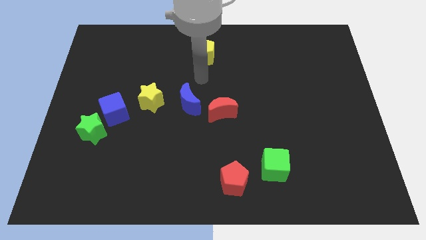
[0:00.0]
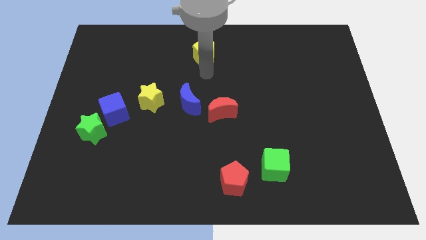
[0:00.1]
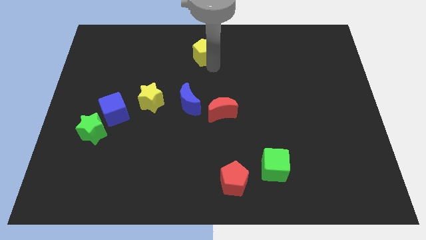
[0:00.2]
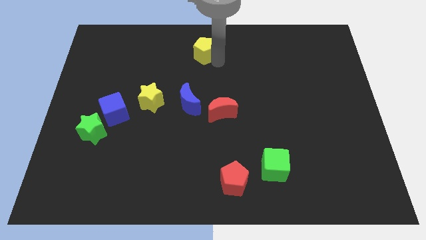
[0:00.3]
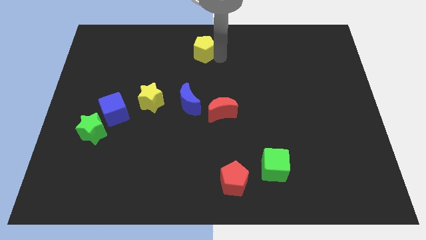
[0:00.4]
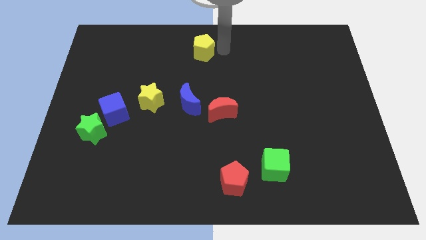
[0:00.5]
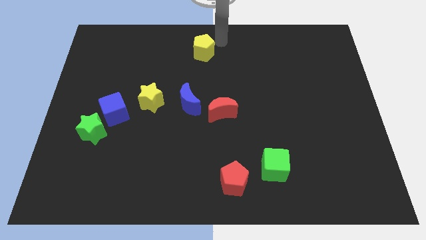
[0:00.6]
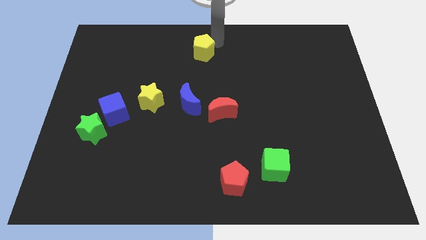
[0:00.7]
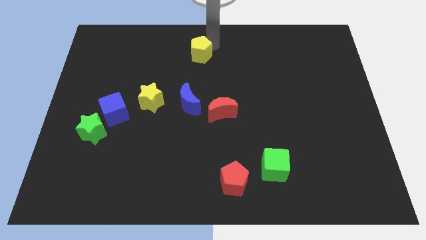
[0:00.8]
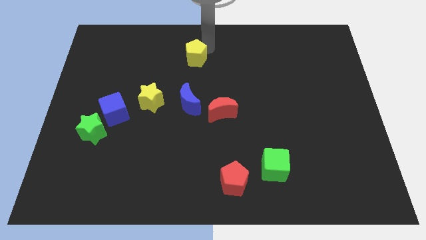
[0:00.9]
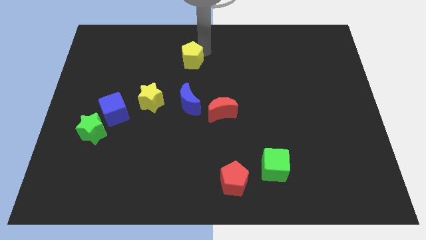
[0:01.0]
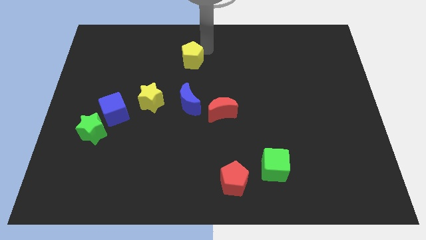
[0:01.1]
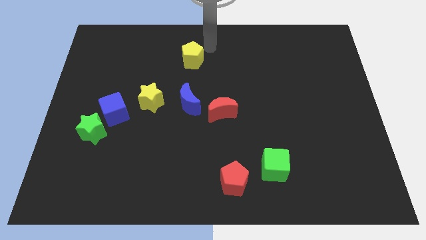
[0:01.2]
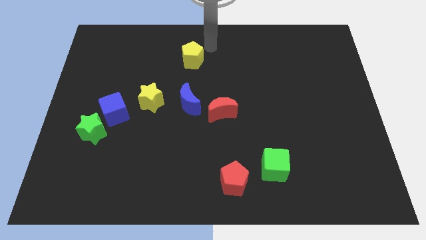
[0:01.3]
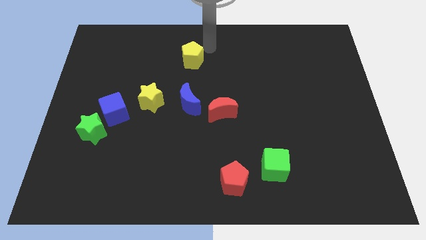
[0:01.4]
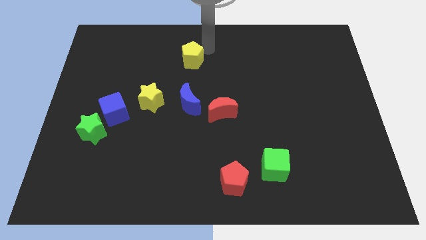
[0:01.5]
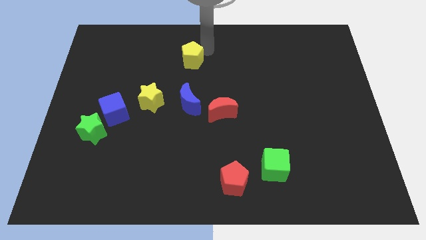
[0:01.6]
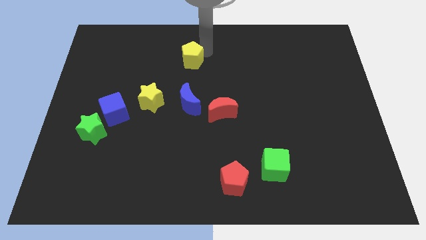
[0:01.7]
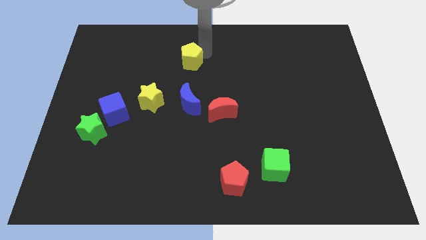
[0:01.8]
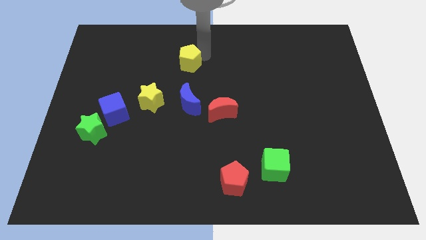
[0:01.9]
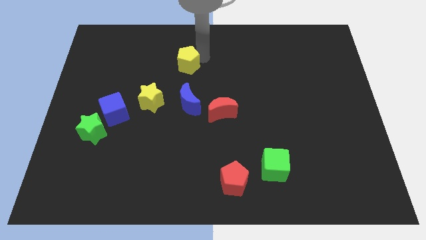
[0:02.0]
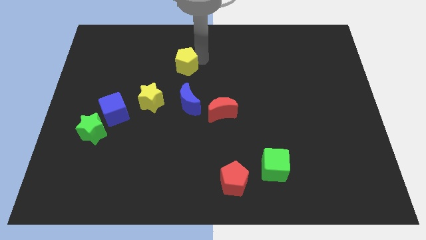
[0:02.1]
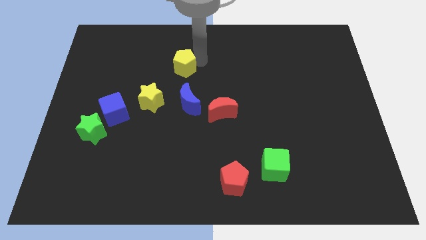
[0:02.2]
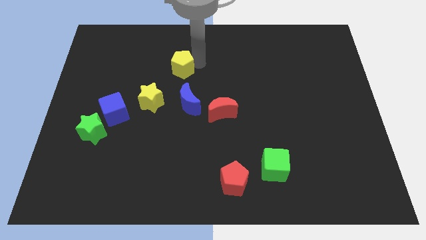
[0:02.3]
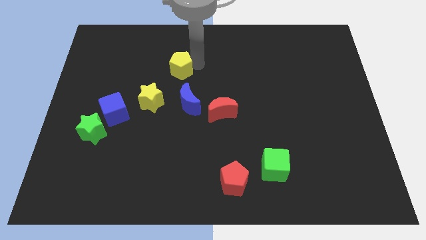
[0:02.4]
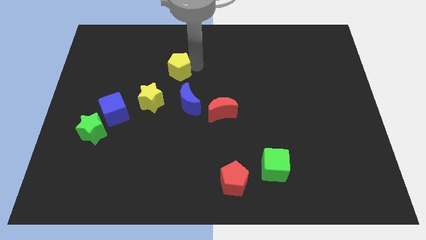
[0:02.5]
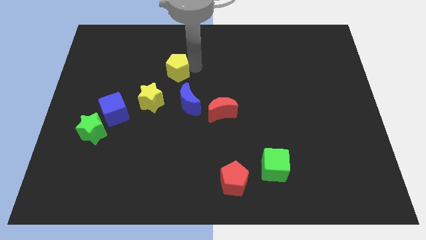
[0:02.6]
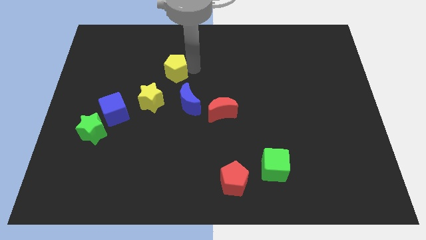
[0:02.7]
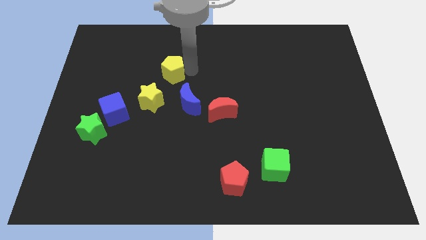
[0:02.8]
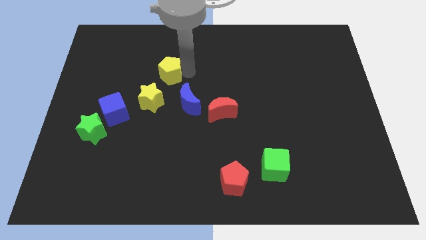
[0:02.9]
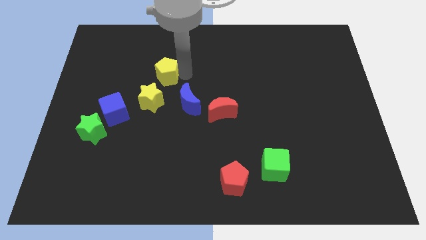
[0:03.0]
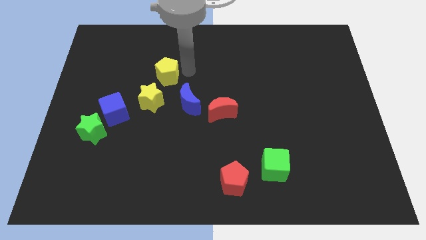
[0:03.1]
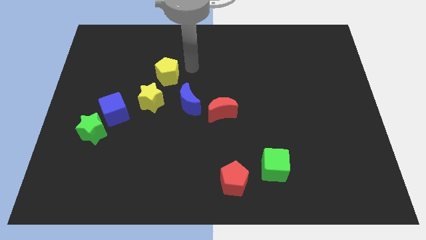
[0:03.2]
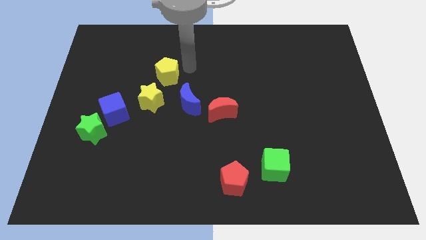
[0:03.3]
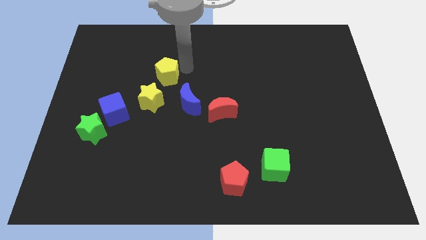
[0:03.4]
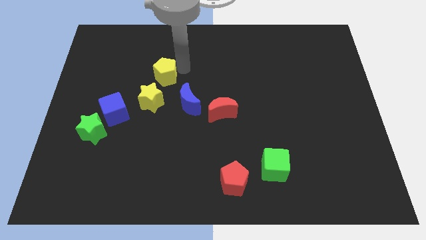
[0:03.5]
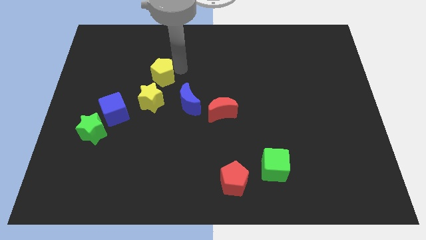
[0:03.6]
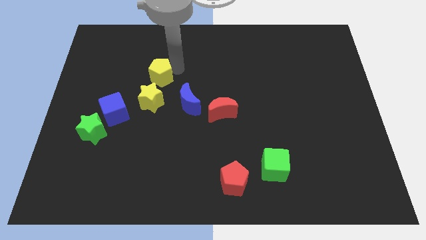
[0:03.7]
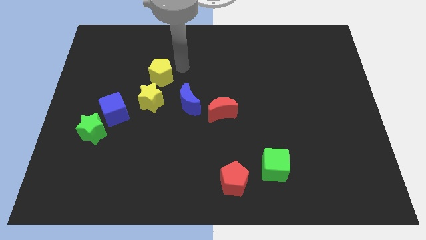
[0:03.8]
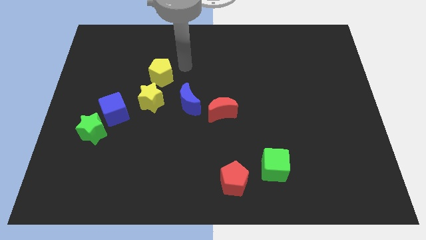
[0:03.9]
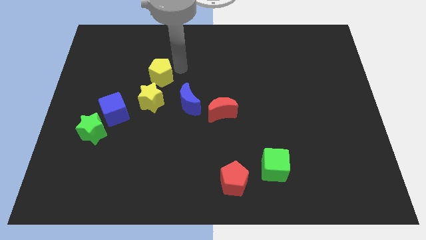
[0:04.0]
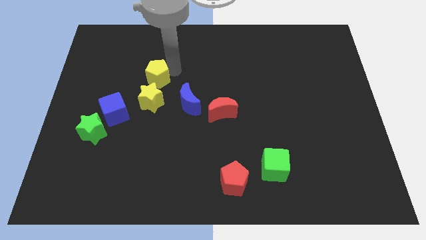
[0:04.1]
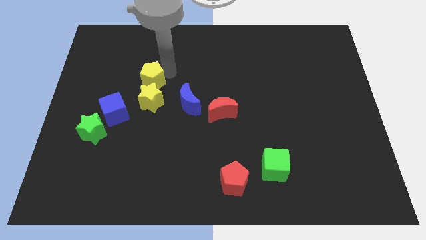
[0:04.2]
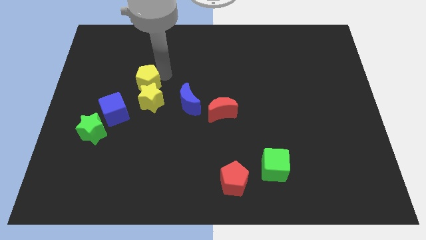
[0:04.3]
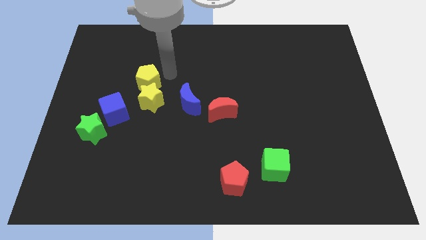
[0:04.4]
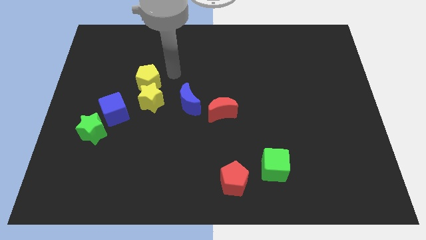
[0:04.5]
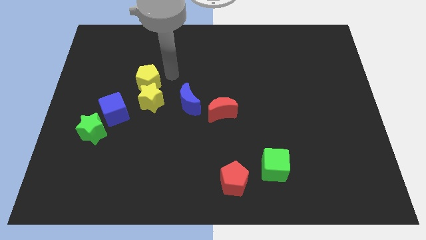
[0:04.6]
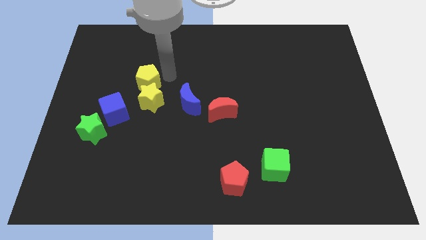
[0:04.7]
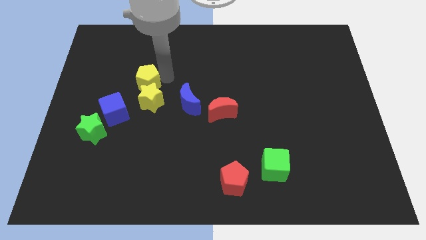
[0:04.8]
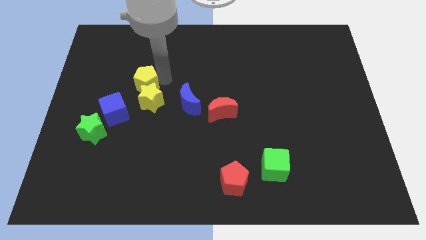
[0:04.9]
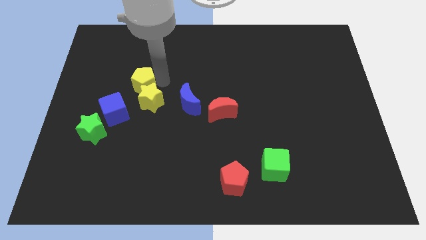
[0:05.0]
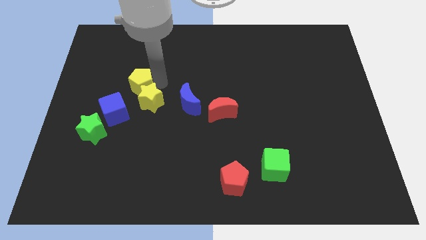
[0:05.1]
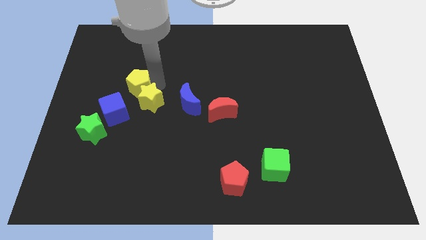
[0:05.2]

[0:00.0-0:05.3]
slide the yellow pentagon left of the yellow star

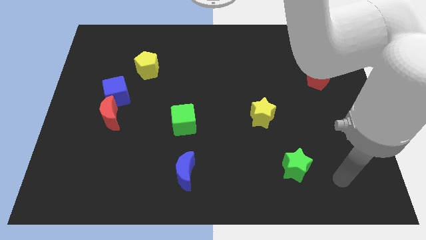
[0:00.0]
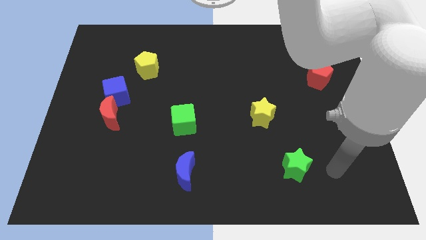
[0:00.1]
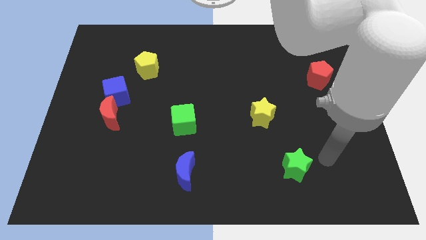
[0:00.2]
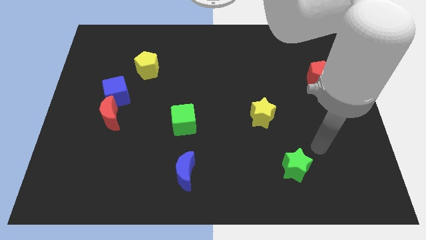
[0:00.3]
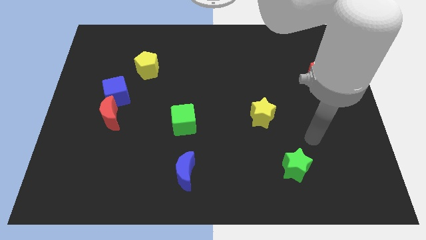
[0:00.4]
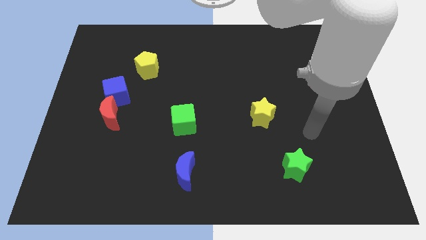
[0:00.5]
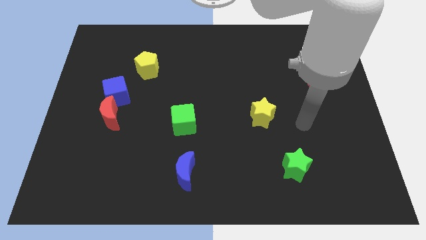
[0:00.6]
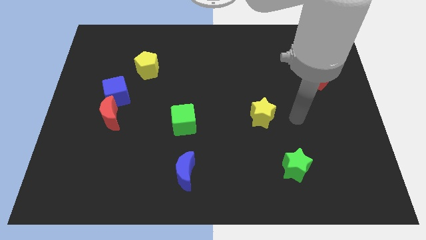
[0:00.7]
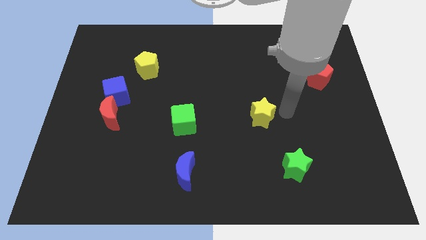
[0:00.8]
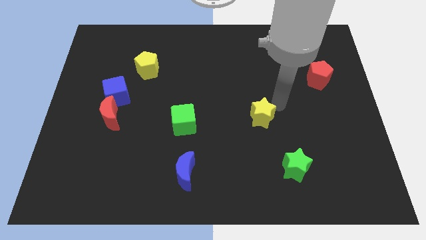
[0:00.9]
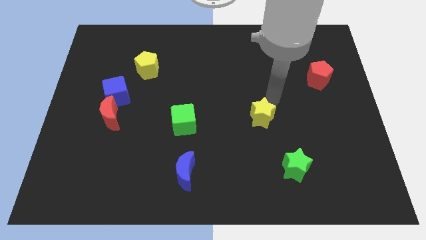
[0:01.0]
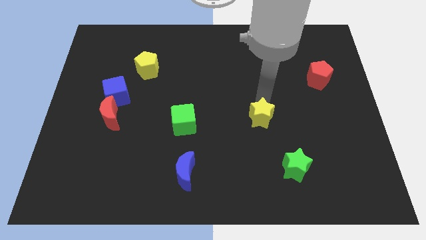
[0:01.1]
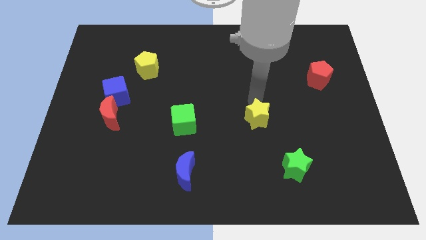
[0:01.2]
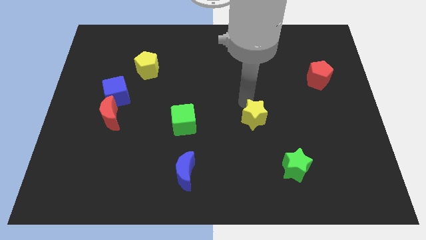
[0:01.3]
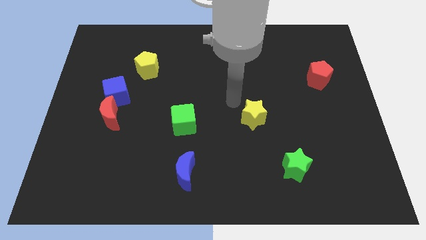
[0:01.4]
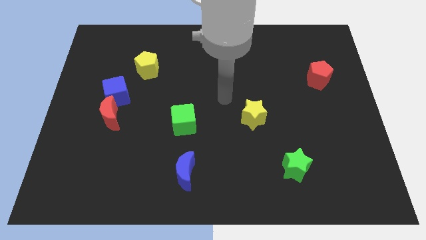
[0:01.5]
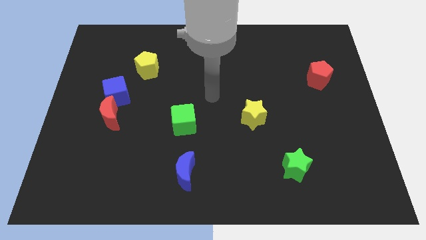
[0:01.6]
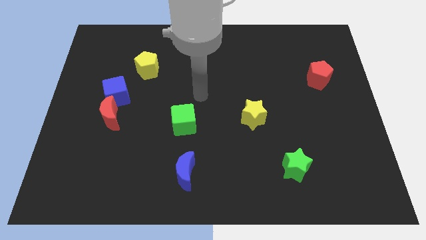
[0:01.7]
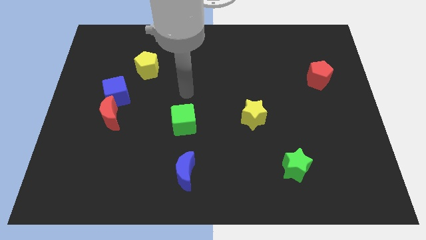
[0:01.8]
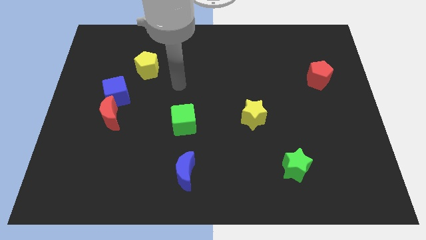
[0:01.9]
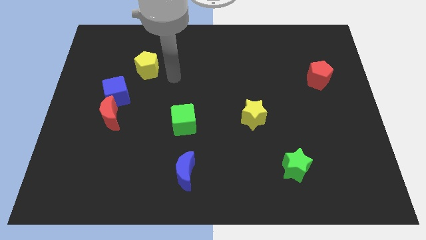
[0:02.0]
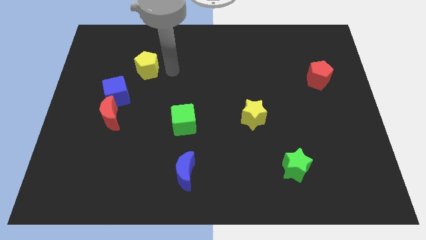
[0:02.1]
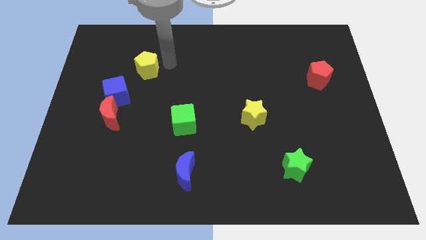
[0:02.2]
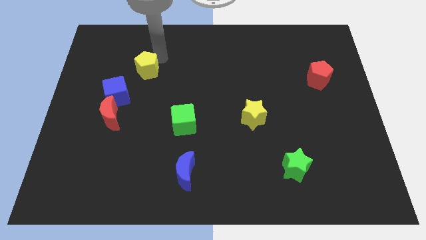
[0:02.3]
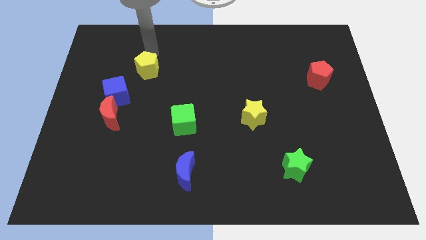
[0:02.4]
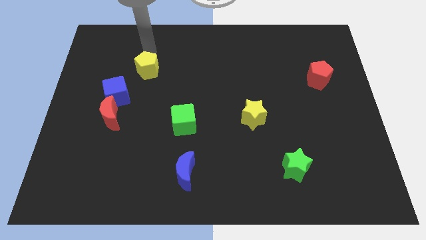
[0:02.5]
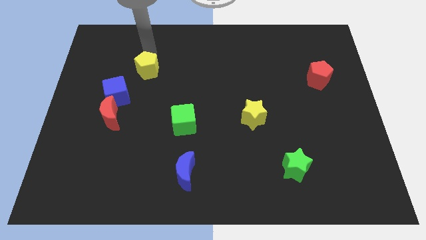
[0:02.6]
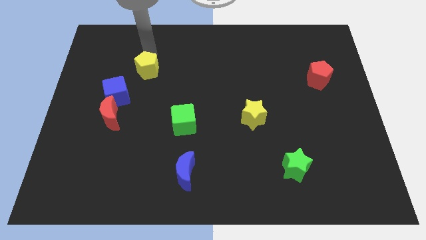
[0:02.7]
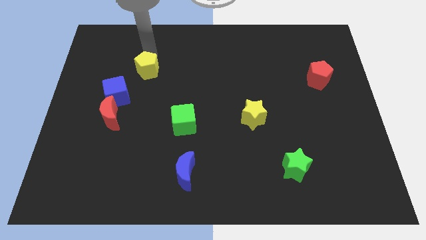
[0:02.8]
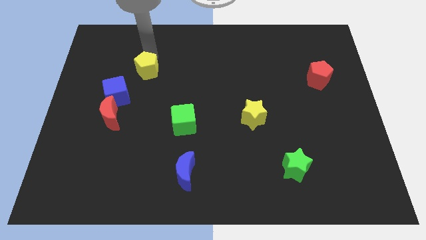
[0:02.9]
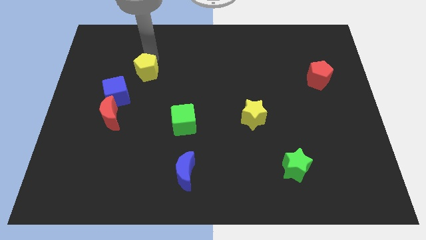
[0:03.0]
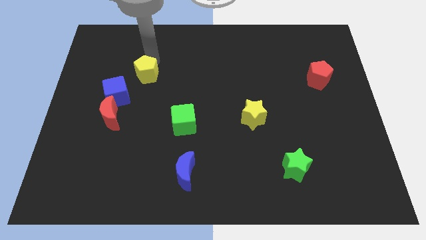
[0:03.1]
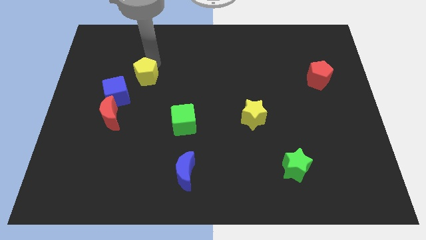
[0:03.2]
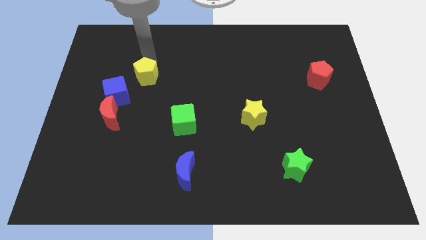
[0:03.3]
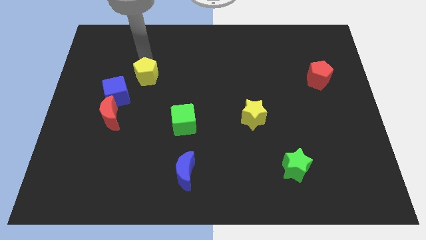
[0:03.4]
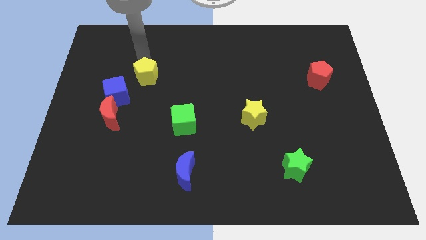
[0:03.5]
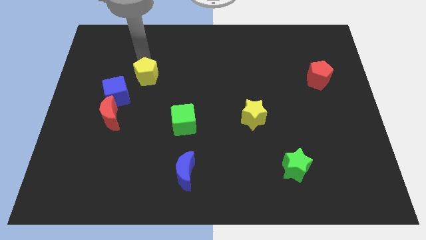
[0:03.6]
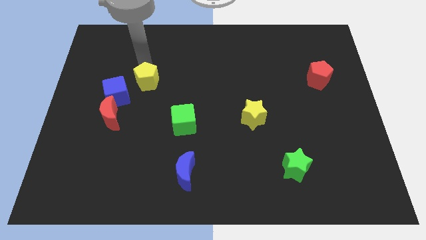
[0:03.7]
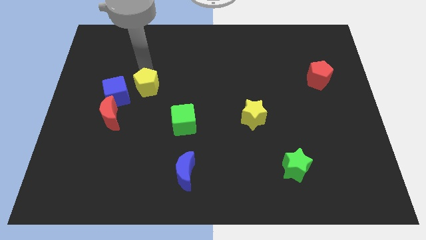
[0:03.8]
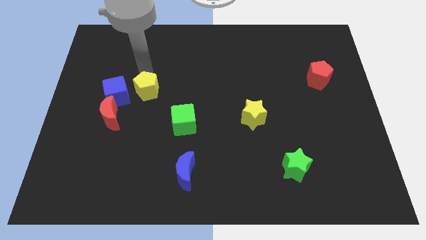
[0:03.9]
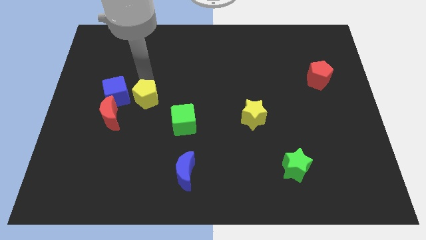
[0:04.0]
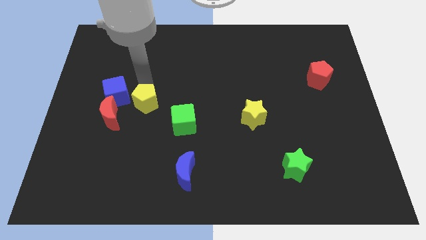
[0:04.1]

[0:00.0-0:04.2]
move the yellow pentagon right of the red moon
